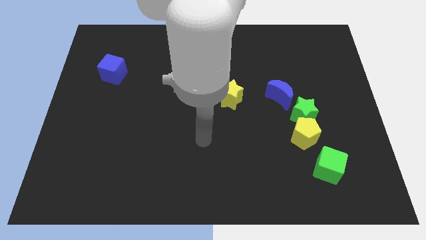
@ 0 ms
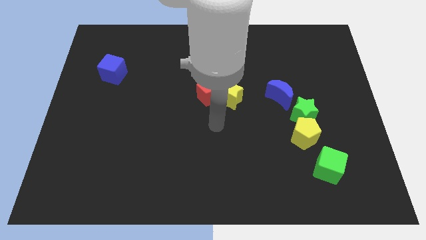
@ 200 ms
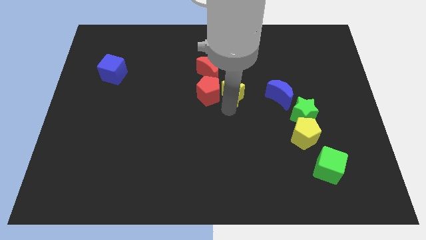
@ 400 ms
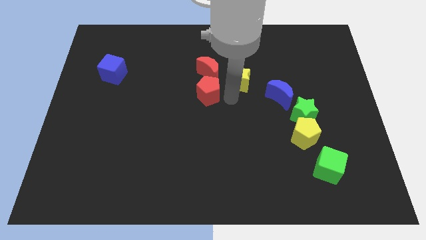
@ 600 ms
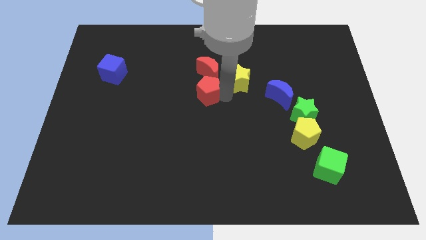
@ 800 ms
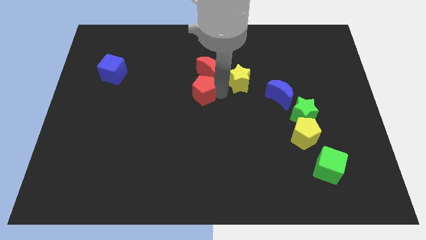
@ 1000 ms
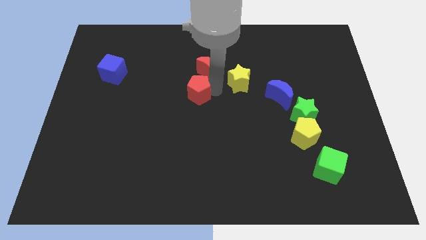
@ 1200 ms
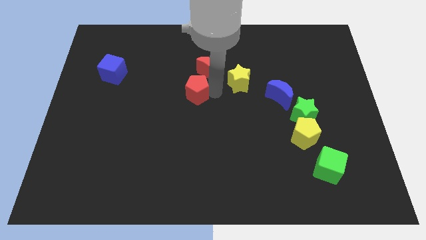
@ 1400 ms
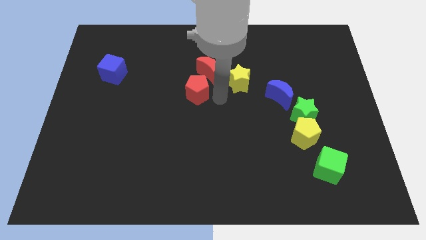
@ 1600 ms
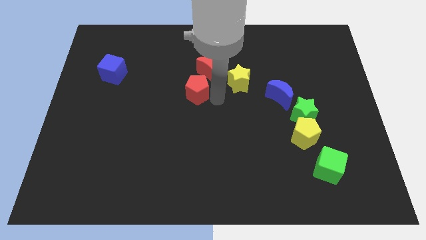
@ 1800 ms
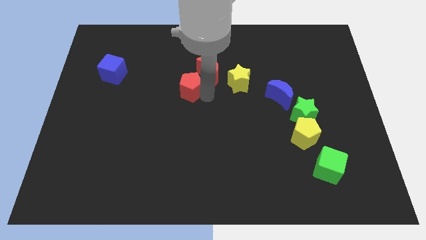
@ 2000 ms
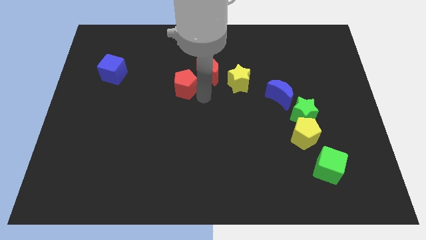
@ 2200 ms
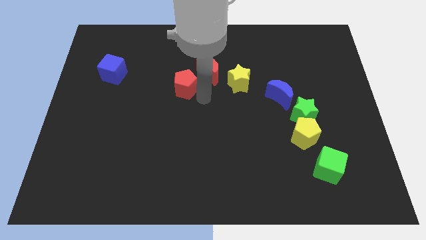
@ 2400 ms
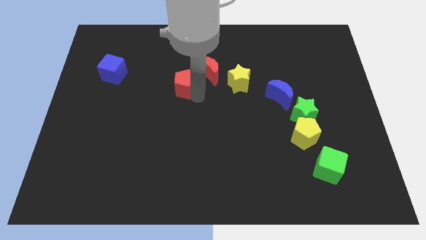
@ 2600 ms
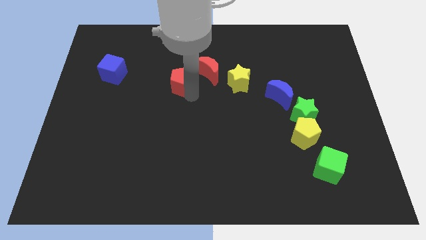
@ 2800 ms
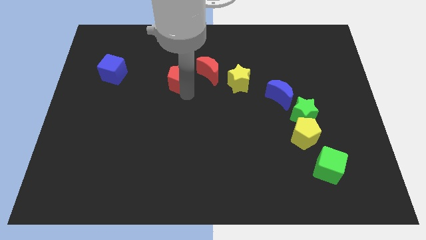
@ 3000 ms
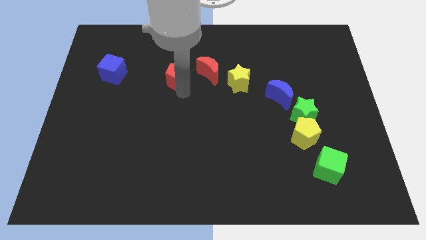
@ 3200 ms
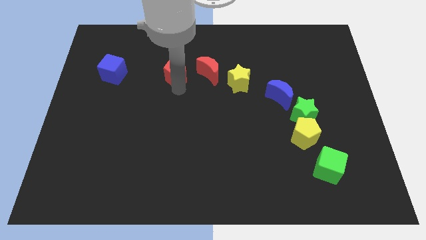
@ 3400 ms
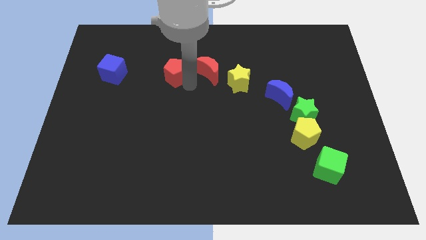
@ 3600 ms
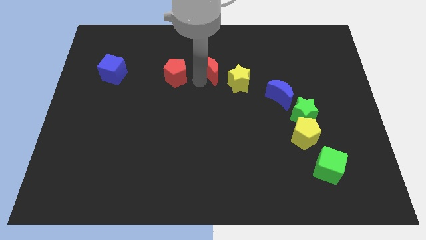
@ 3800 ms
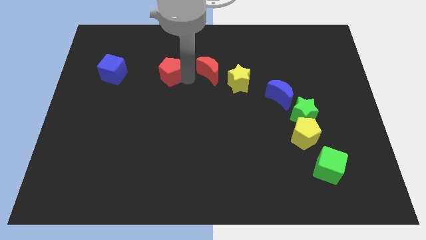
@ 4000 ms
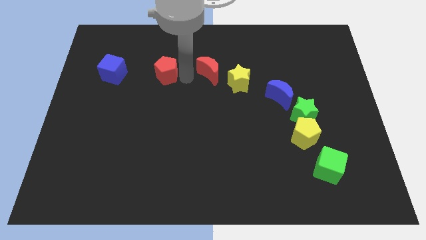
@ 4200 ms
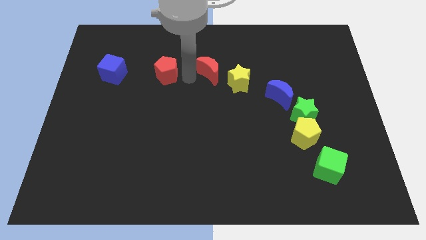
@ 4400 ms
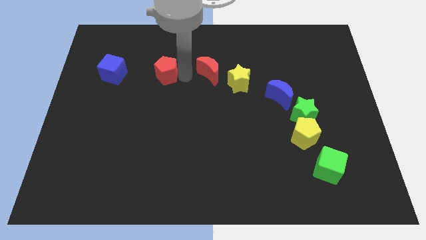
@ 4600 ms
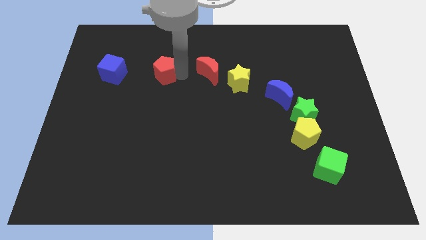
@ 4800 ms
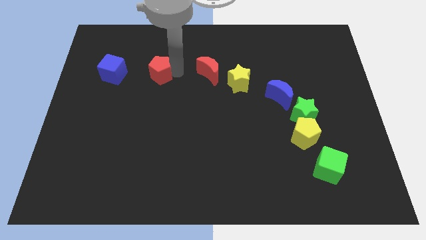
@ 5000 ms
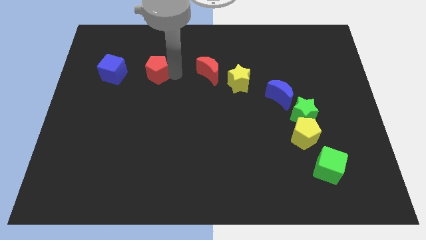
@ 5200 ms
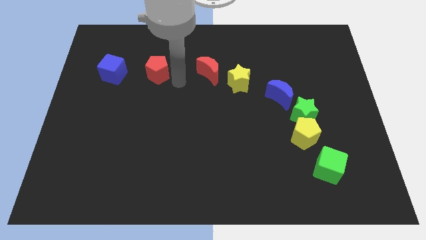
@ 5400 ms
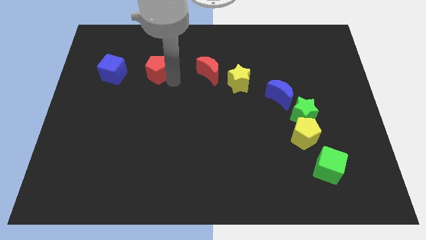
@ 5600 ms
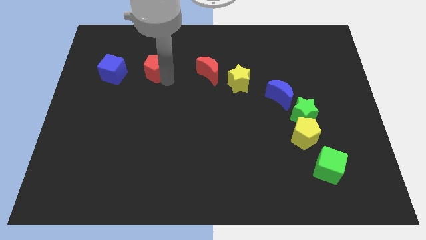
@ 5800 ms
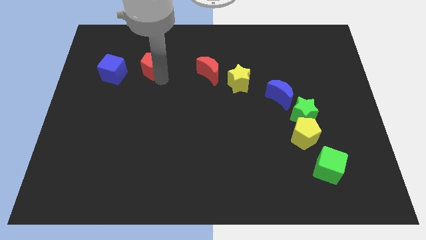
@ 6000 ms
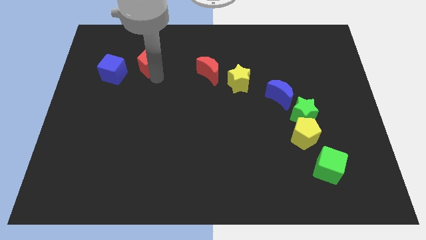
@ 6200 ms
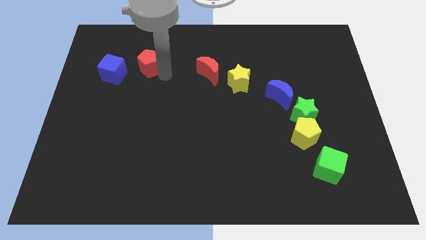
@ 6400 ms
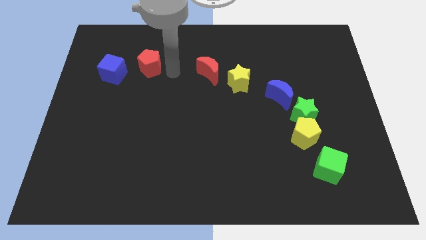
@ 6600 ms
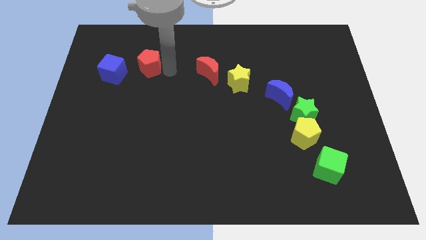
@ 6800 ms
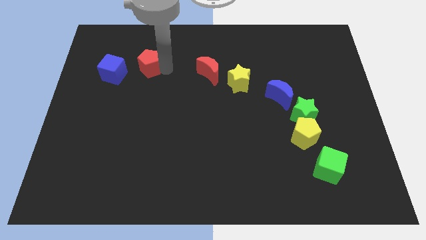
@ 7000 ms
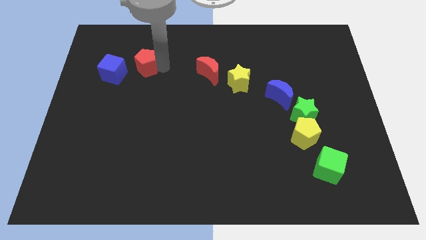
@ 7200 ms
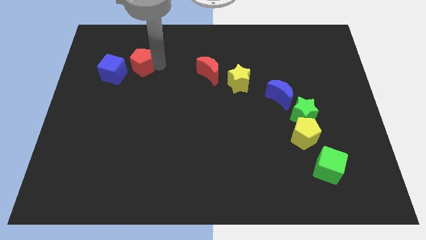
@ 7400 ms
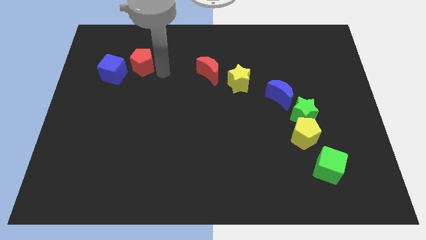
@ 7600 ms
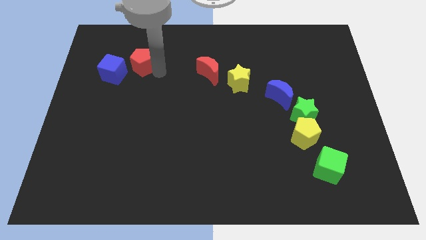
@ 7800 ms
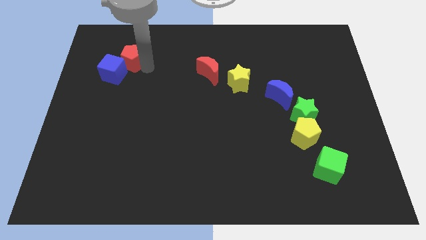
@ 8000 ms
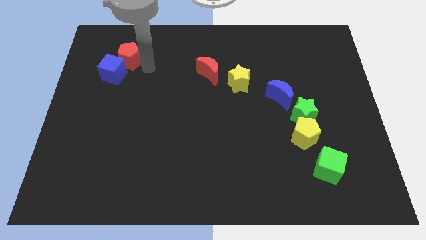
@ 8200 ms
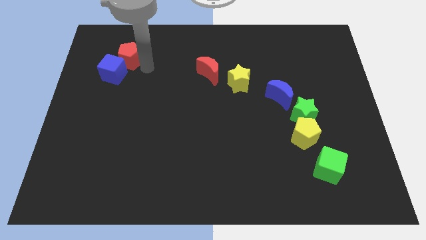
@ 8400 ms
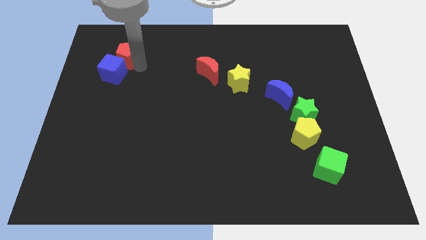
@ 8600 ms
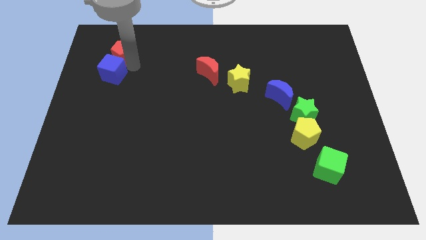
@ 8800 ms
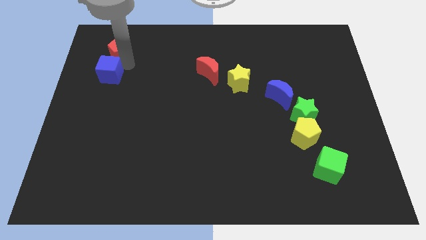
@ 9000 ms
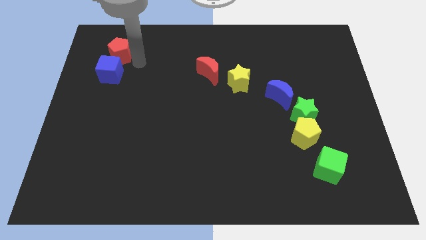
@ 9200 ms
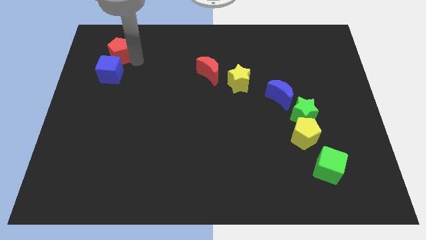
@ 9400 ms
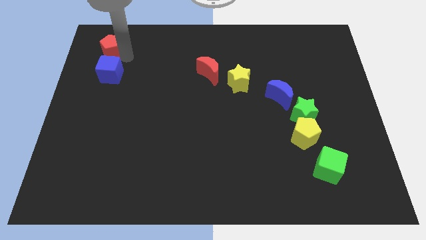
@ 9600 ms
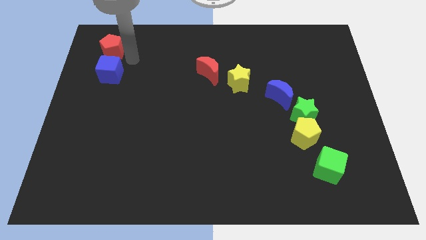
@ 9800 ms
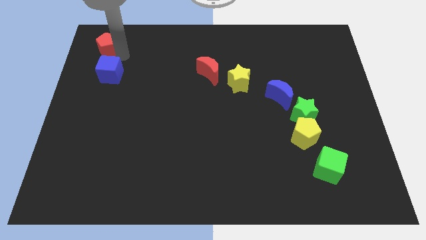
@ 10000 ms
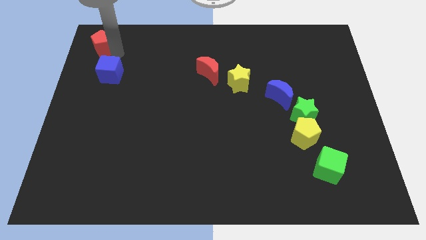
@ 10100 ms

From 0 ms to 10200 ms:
move the red pentagon to the upper left corner

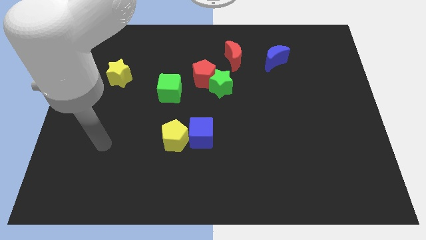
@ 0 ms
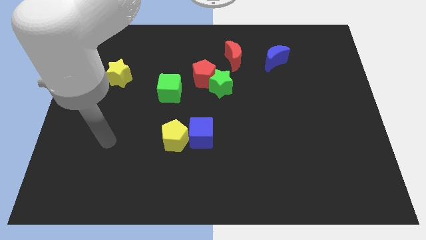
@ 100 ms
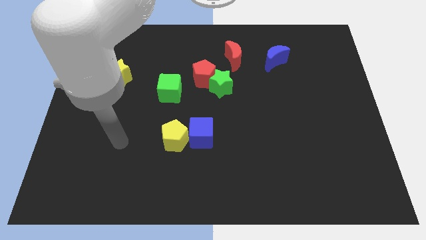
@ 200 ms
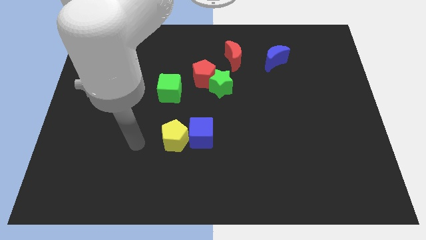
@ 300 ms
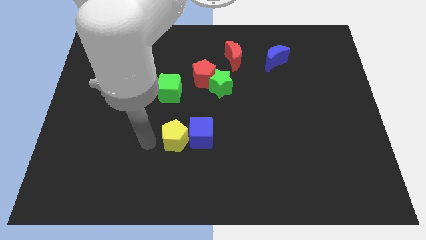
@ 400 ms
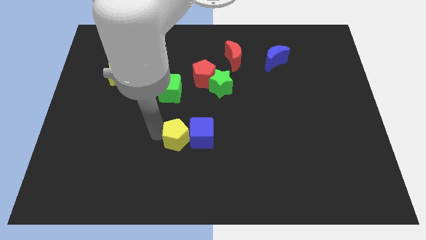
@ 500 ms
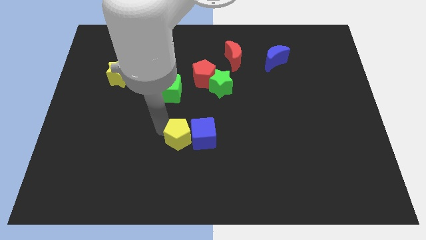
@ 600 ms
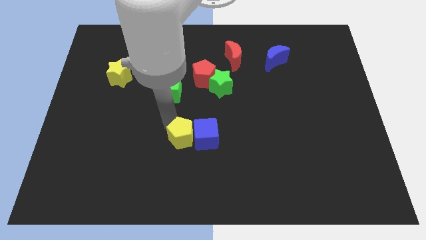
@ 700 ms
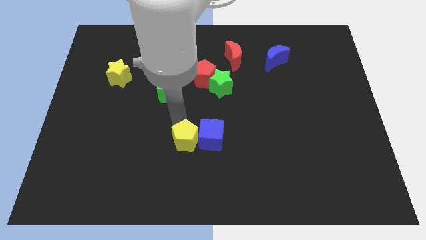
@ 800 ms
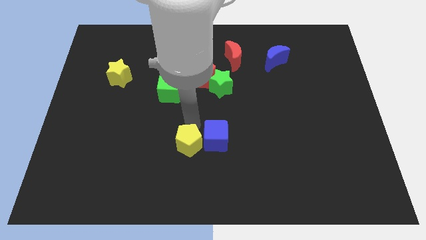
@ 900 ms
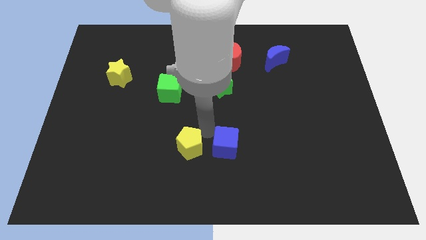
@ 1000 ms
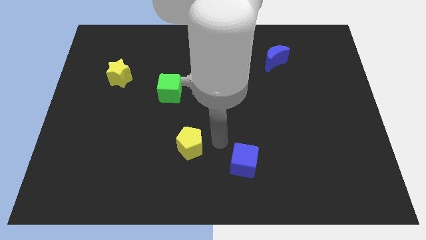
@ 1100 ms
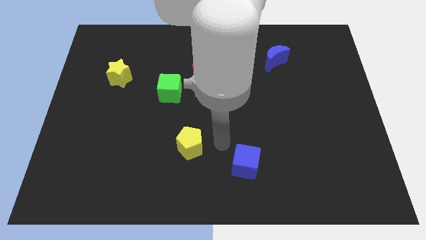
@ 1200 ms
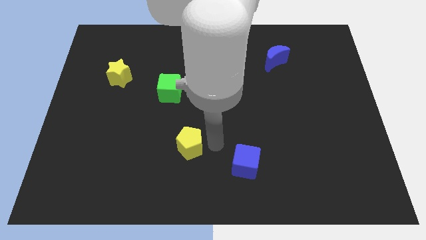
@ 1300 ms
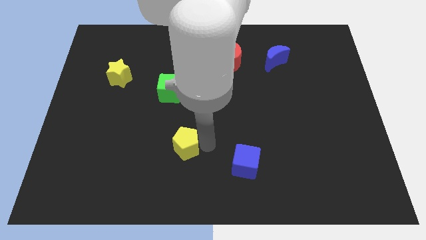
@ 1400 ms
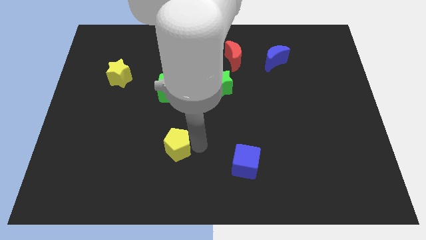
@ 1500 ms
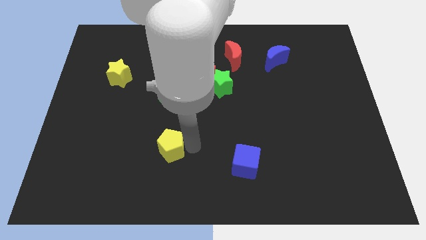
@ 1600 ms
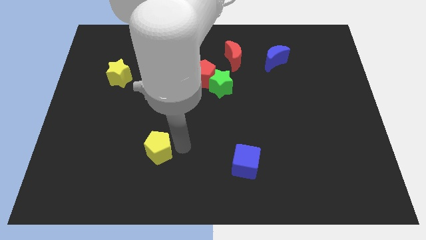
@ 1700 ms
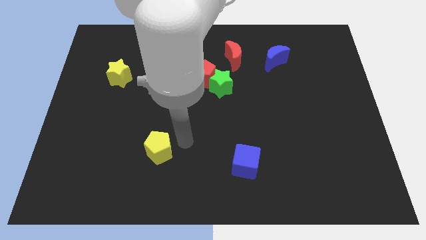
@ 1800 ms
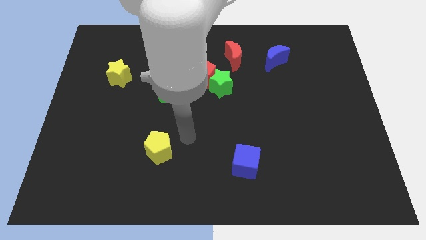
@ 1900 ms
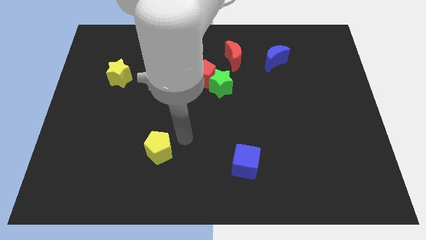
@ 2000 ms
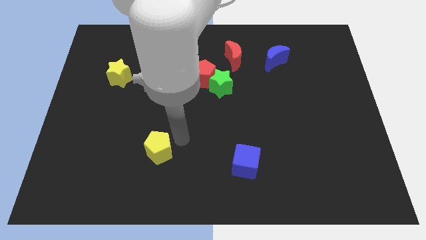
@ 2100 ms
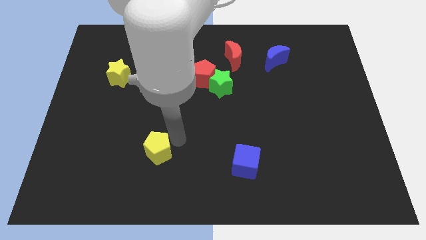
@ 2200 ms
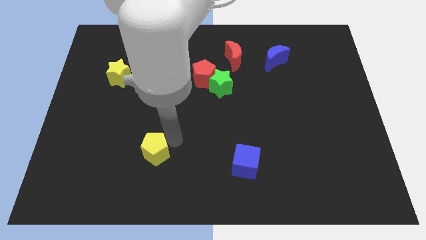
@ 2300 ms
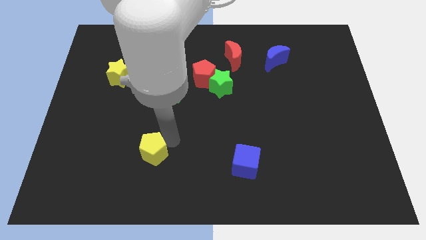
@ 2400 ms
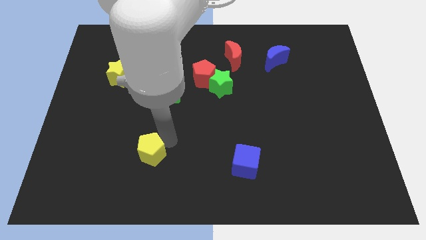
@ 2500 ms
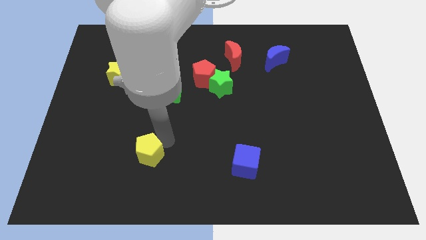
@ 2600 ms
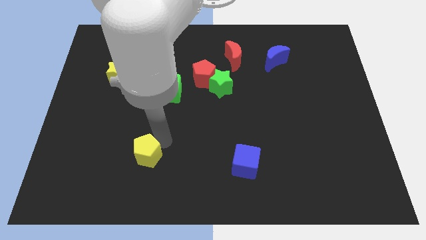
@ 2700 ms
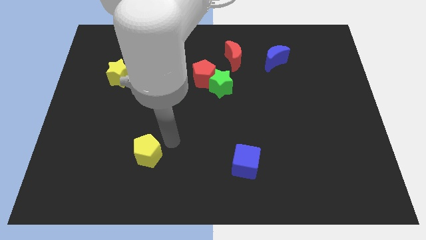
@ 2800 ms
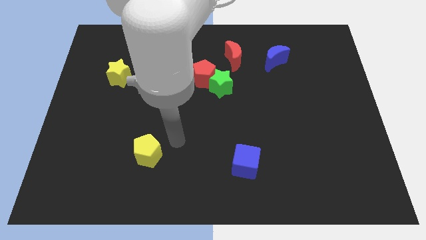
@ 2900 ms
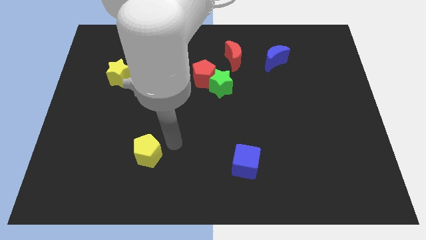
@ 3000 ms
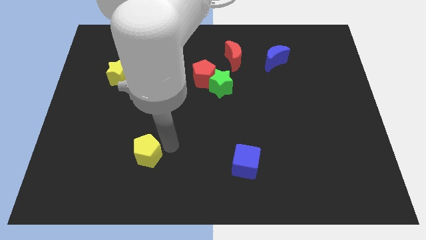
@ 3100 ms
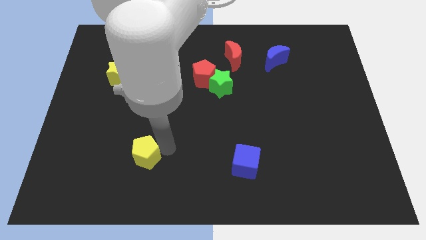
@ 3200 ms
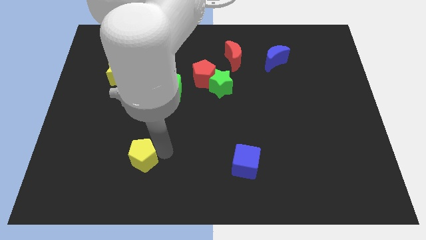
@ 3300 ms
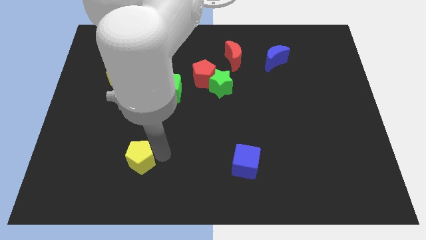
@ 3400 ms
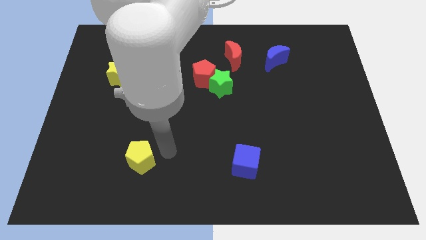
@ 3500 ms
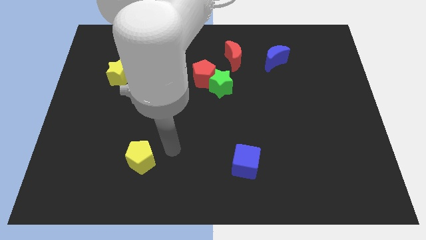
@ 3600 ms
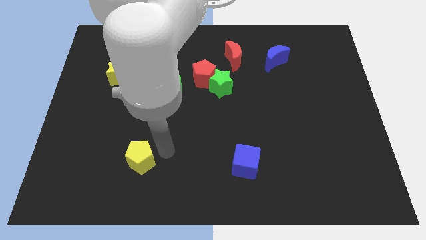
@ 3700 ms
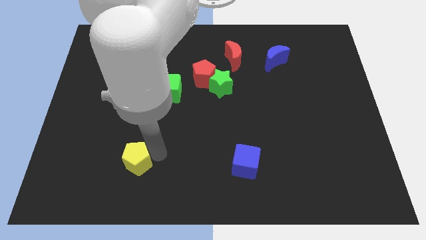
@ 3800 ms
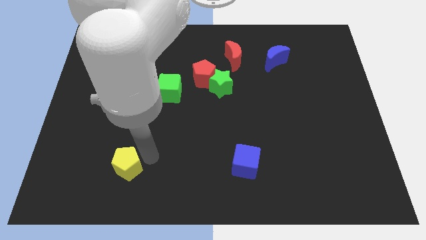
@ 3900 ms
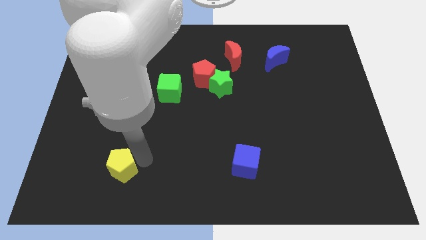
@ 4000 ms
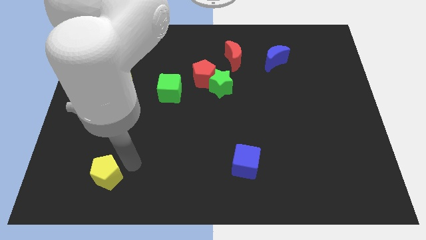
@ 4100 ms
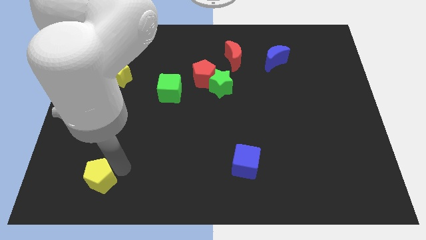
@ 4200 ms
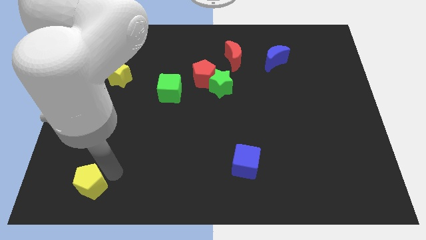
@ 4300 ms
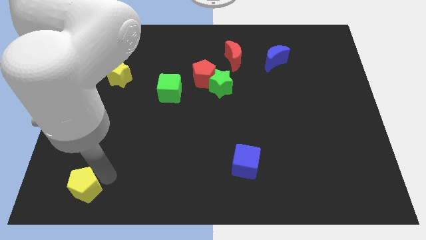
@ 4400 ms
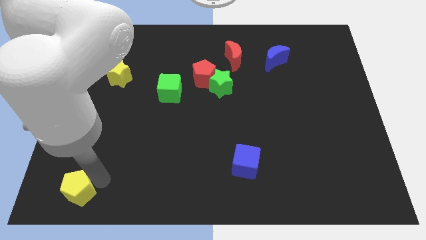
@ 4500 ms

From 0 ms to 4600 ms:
push the yellow pentagon to the bottom left of the board
